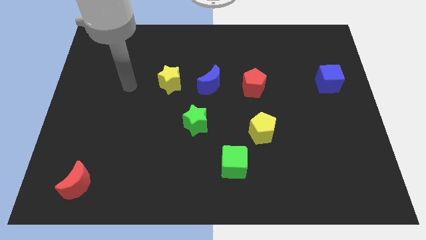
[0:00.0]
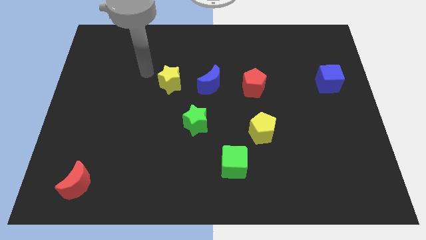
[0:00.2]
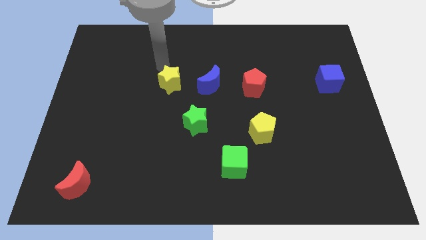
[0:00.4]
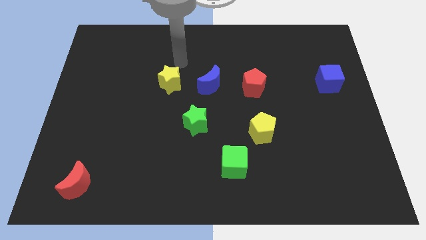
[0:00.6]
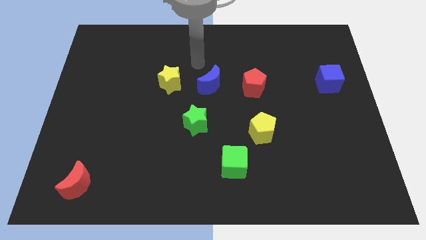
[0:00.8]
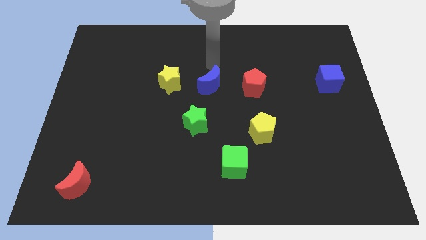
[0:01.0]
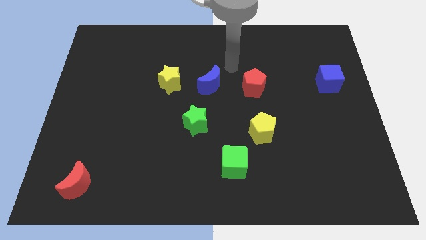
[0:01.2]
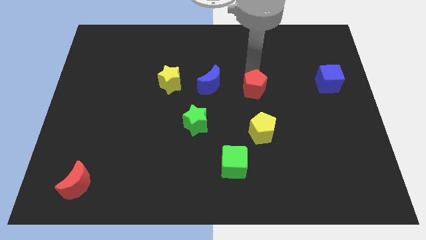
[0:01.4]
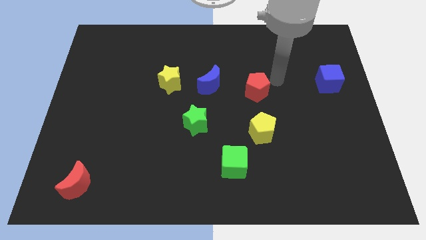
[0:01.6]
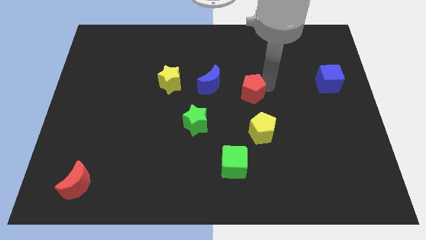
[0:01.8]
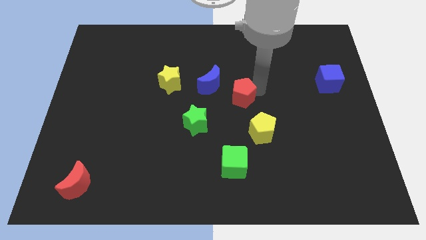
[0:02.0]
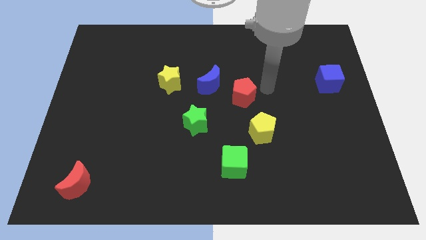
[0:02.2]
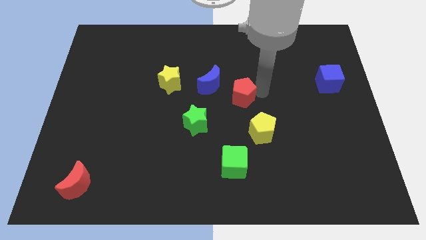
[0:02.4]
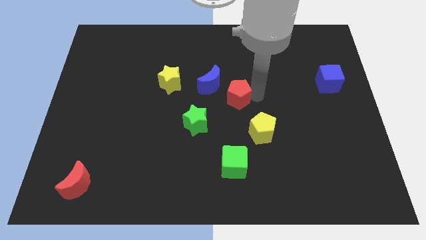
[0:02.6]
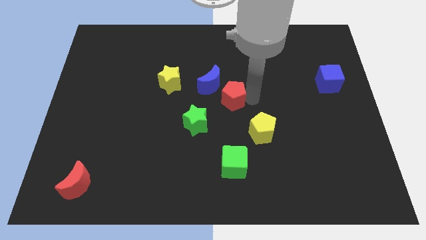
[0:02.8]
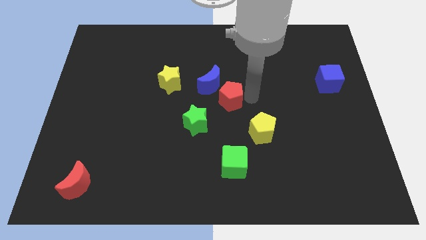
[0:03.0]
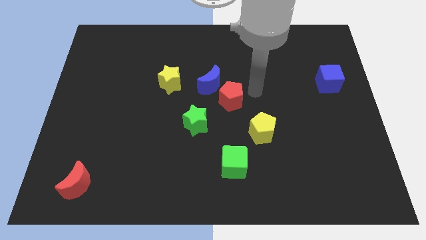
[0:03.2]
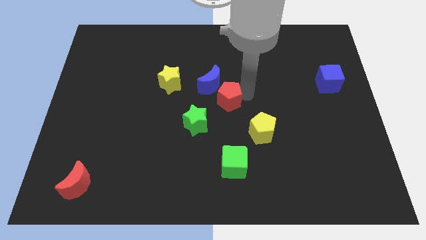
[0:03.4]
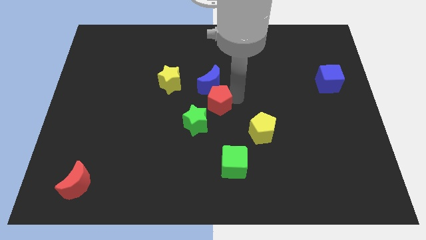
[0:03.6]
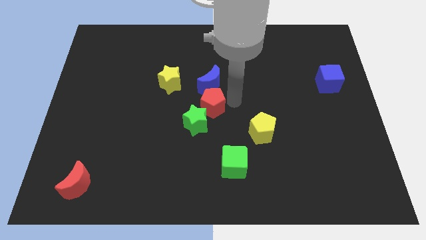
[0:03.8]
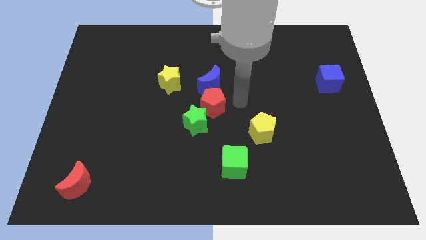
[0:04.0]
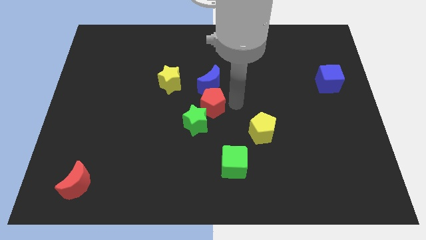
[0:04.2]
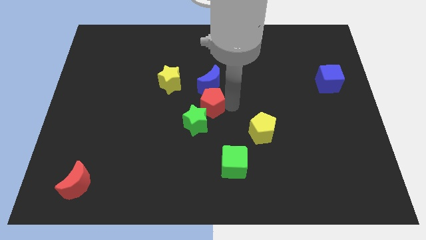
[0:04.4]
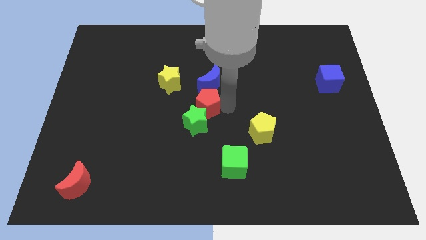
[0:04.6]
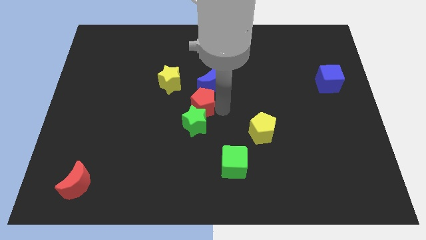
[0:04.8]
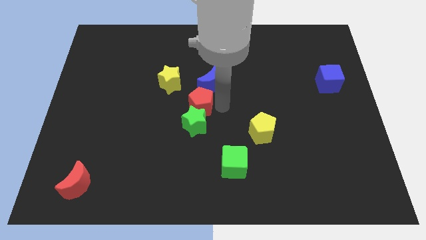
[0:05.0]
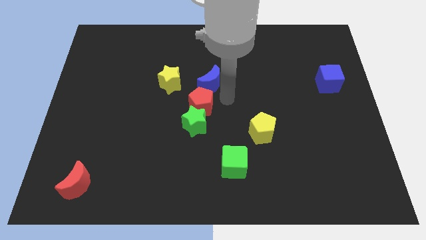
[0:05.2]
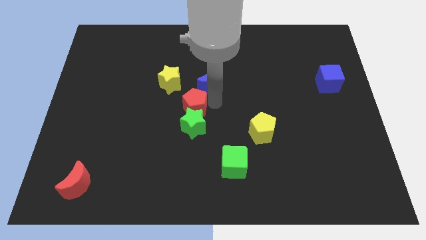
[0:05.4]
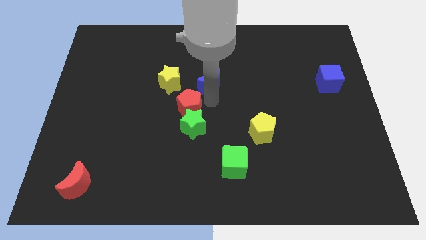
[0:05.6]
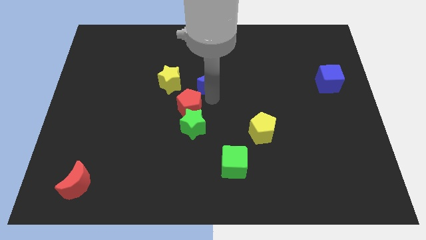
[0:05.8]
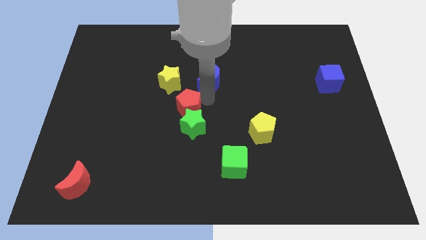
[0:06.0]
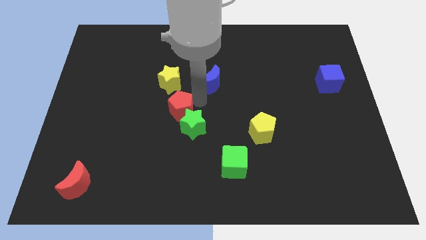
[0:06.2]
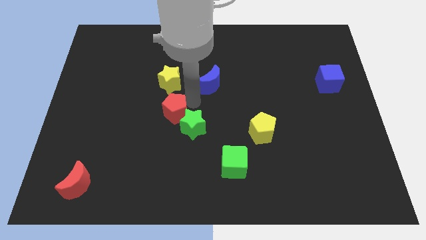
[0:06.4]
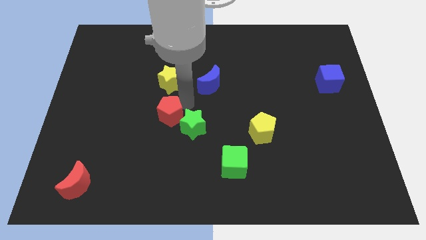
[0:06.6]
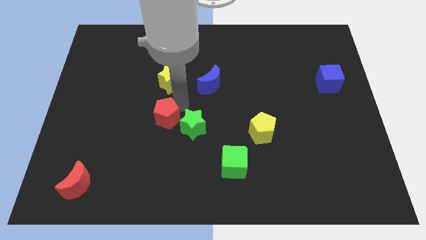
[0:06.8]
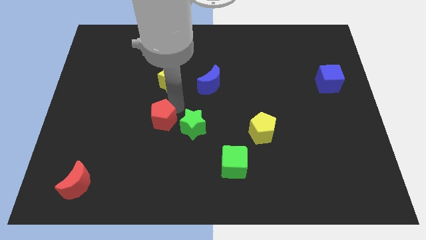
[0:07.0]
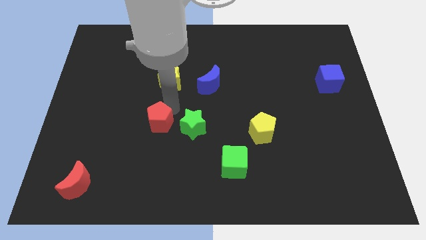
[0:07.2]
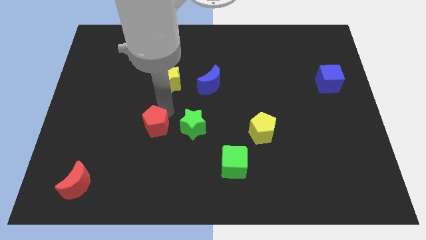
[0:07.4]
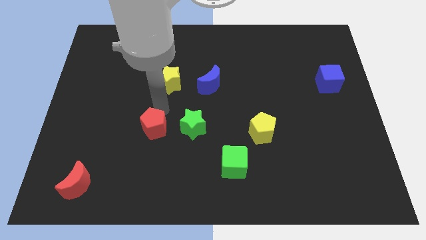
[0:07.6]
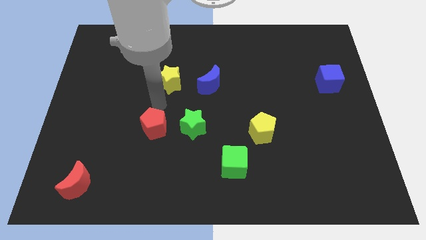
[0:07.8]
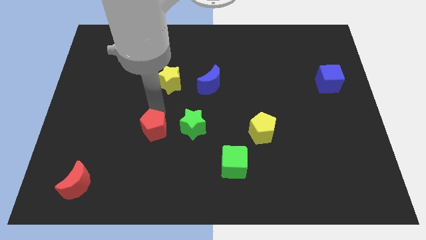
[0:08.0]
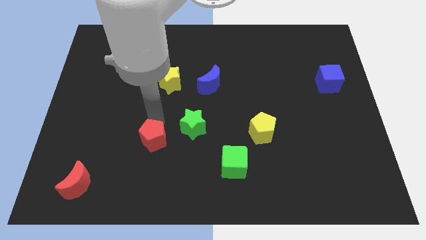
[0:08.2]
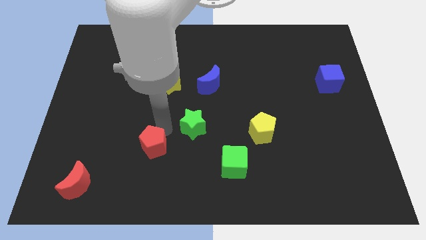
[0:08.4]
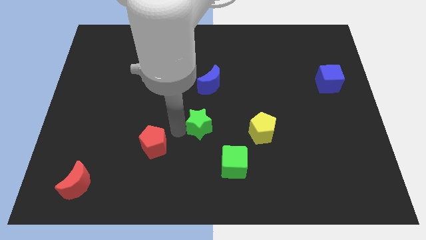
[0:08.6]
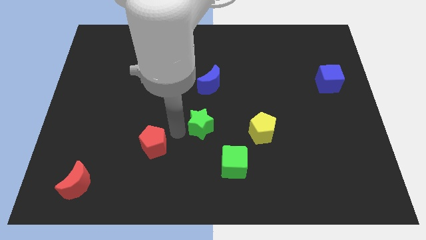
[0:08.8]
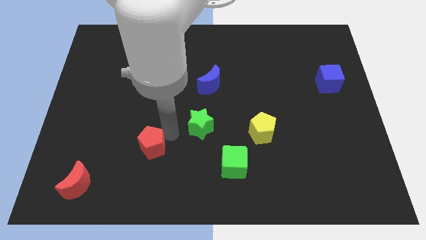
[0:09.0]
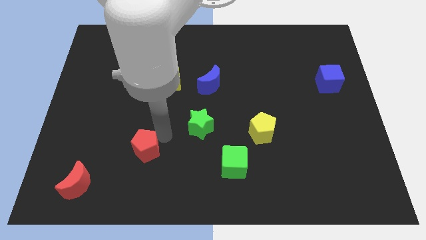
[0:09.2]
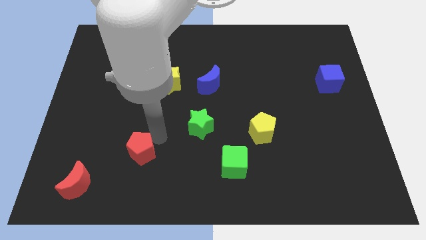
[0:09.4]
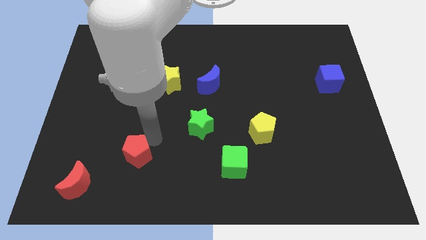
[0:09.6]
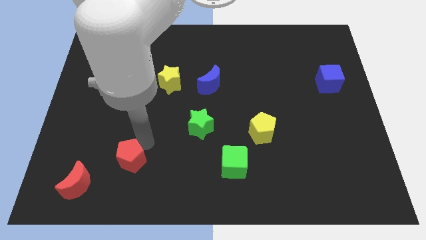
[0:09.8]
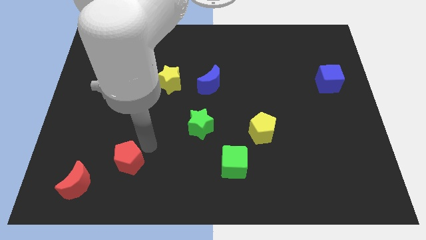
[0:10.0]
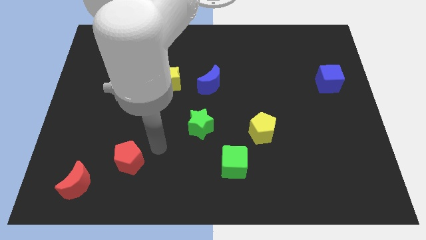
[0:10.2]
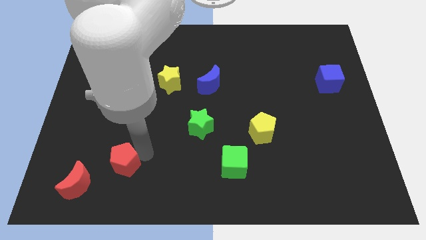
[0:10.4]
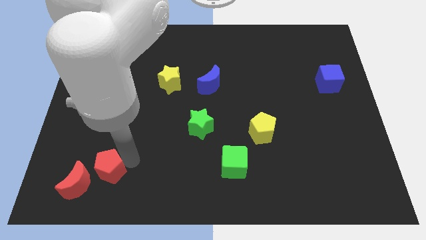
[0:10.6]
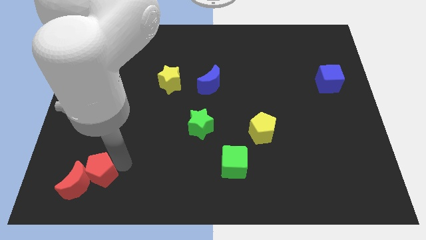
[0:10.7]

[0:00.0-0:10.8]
slide the red pentagon towards the red moon

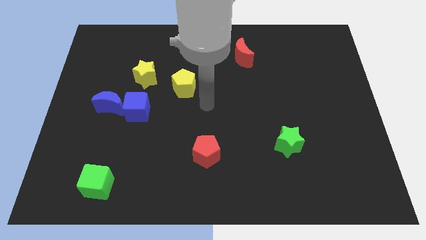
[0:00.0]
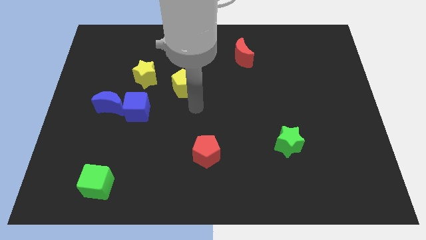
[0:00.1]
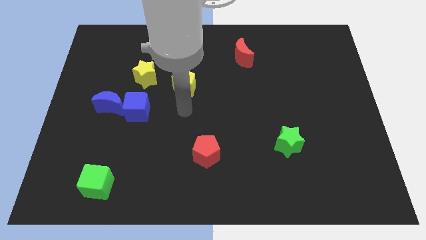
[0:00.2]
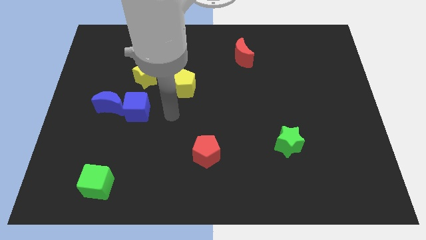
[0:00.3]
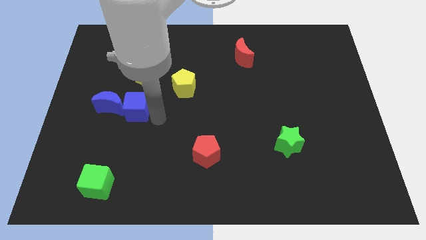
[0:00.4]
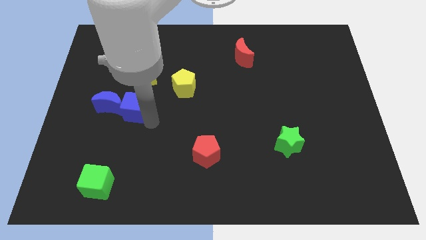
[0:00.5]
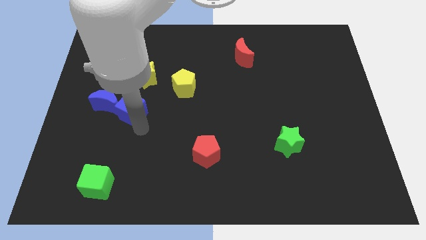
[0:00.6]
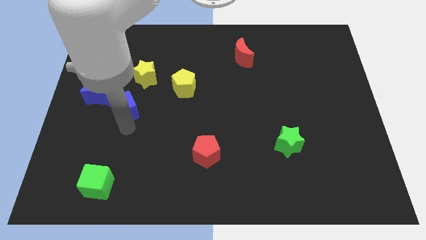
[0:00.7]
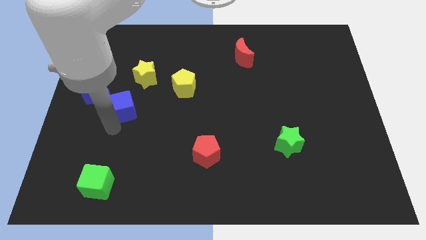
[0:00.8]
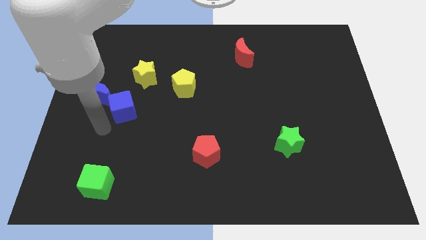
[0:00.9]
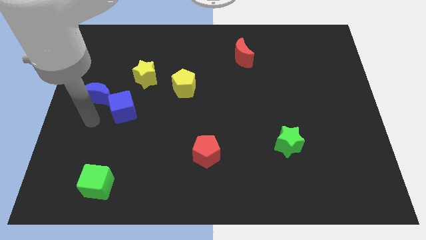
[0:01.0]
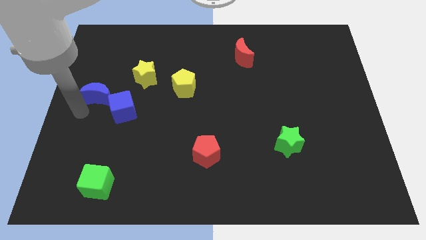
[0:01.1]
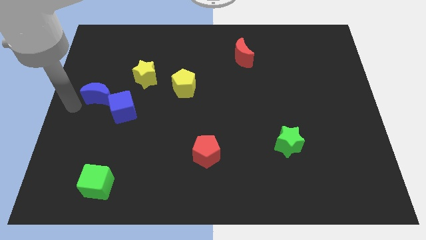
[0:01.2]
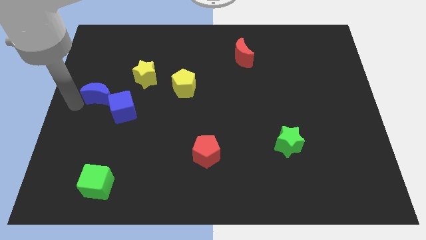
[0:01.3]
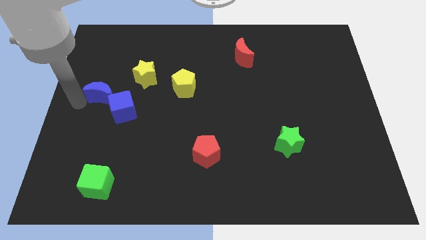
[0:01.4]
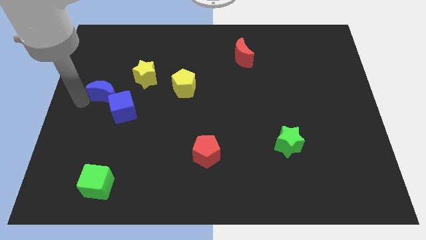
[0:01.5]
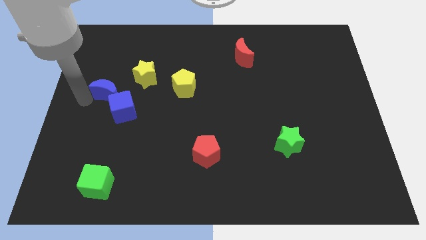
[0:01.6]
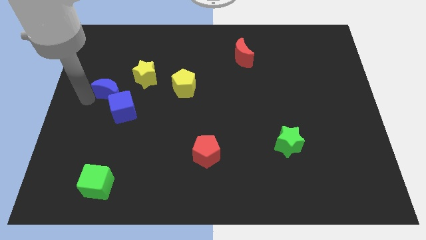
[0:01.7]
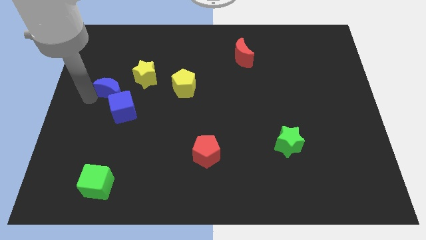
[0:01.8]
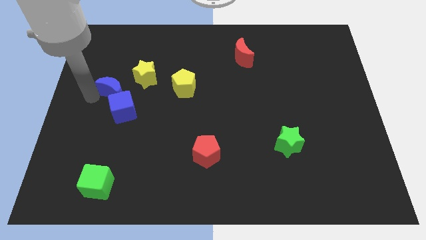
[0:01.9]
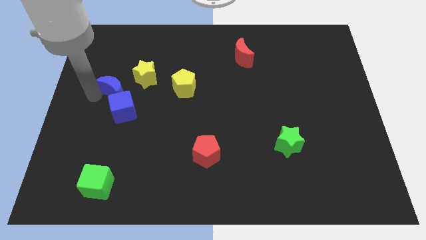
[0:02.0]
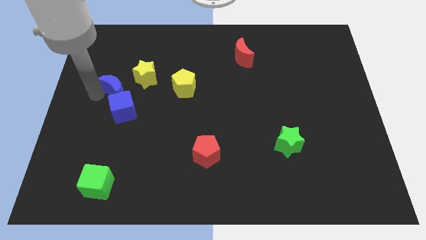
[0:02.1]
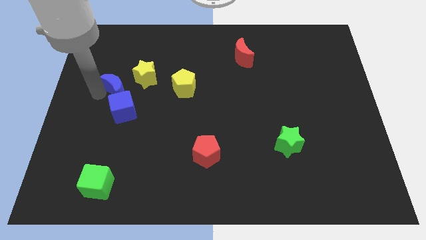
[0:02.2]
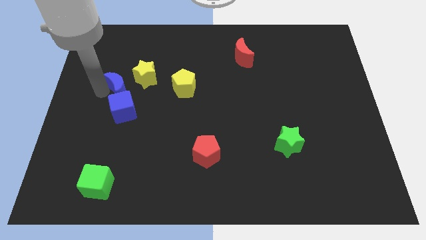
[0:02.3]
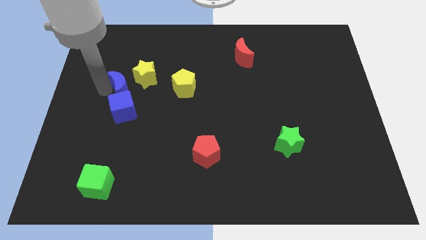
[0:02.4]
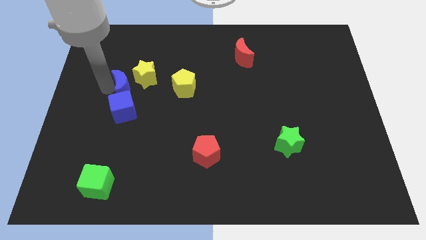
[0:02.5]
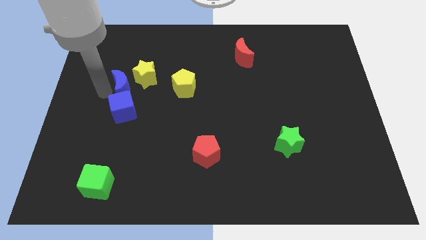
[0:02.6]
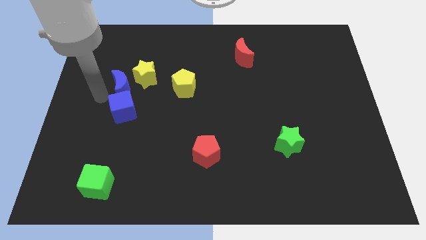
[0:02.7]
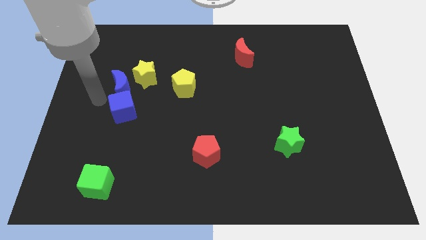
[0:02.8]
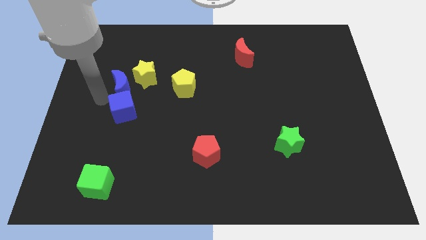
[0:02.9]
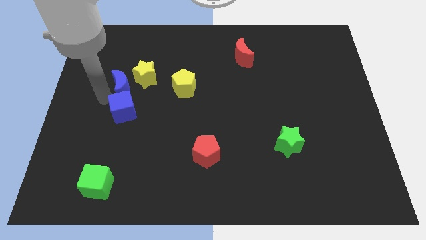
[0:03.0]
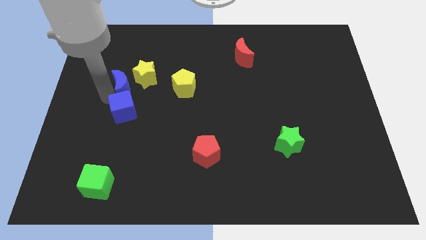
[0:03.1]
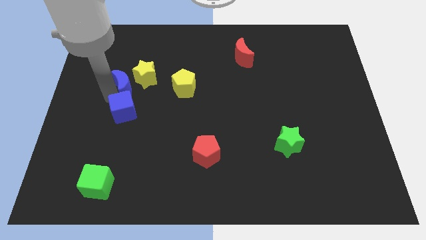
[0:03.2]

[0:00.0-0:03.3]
slide the blue moon close to the yellow star
